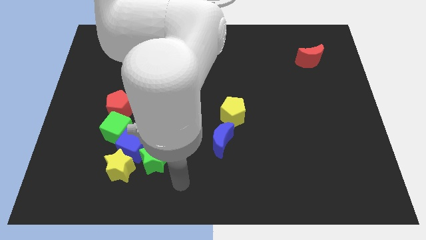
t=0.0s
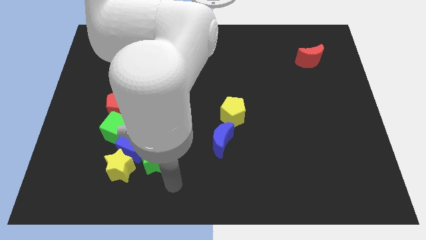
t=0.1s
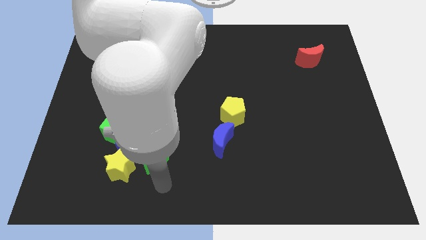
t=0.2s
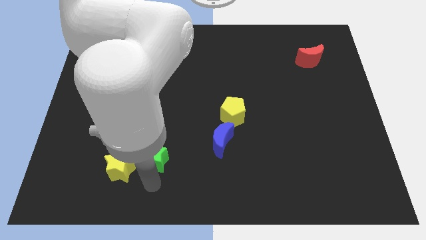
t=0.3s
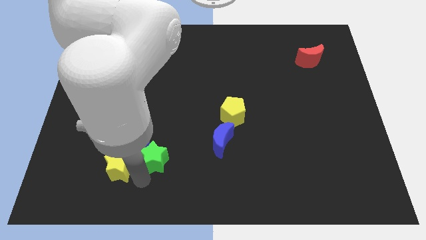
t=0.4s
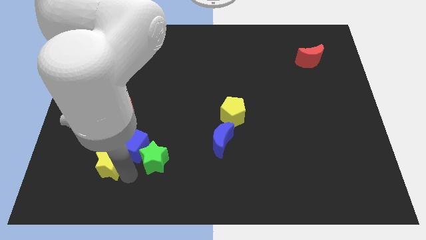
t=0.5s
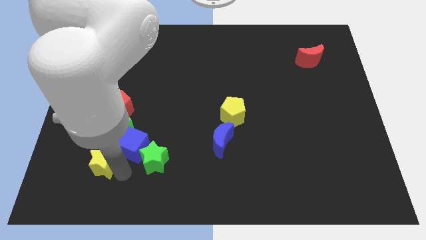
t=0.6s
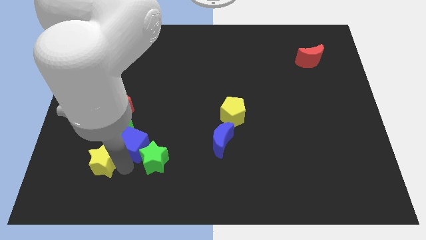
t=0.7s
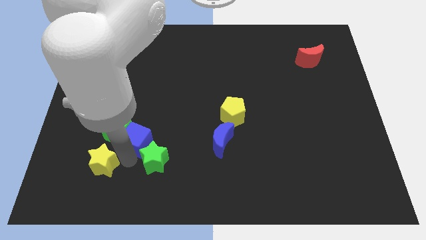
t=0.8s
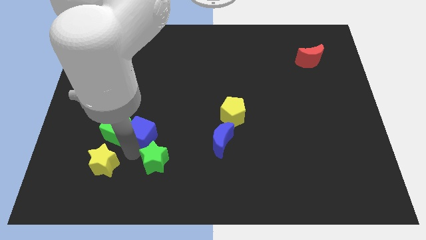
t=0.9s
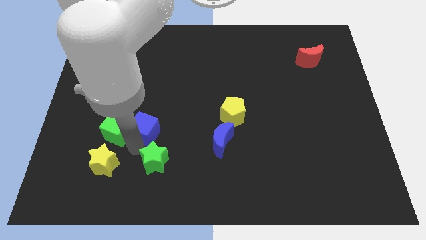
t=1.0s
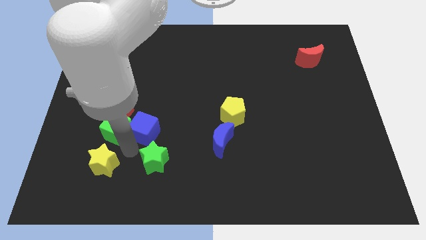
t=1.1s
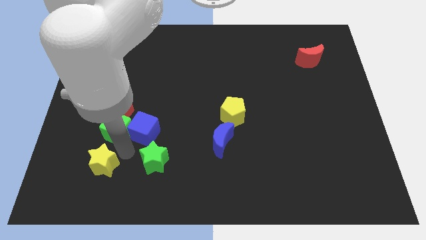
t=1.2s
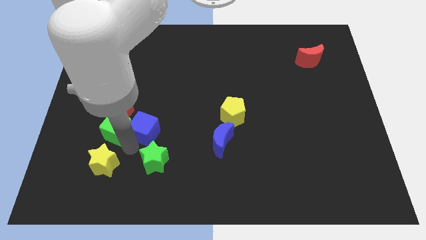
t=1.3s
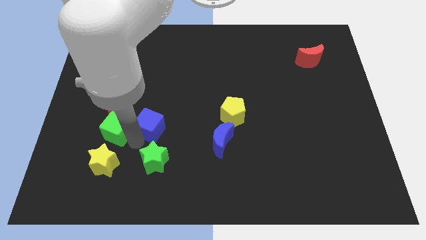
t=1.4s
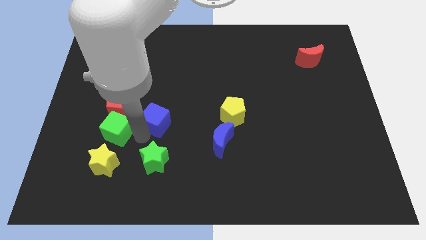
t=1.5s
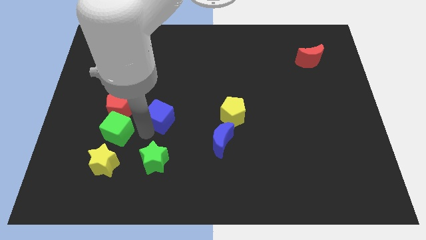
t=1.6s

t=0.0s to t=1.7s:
pull the blue cube apart from the clump

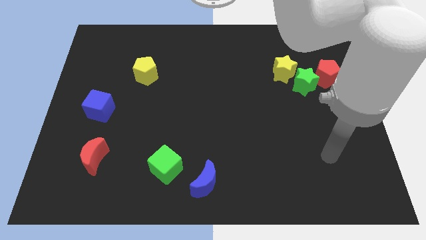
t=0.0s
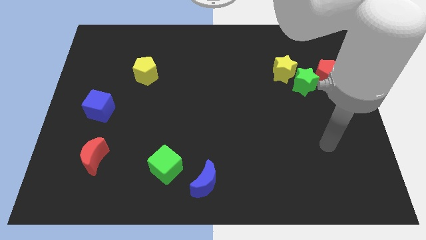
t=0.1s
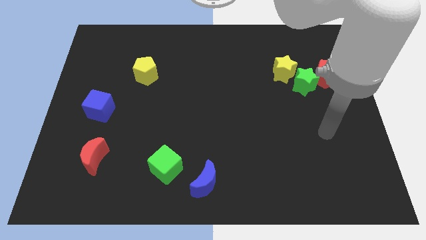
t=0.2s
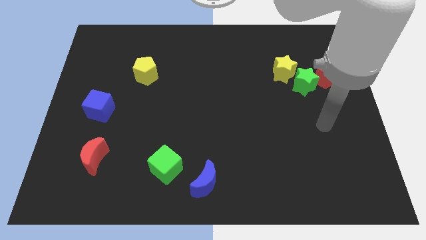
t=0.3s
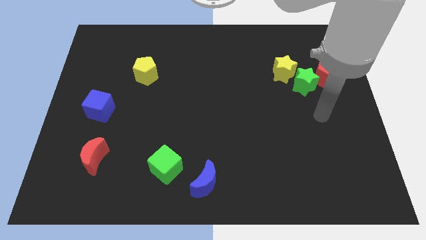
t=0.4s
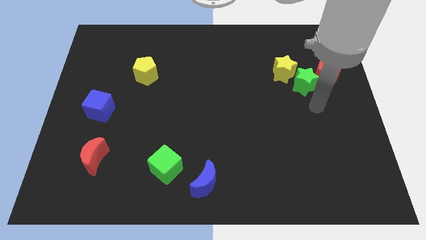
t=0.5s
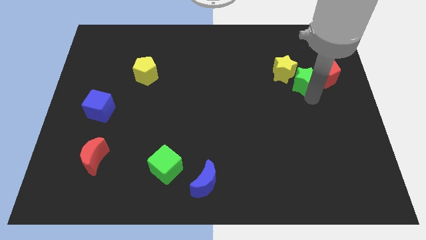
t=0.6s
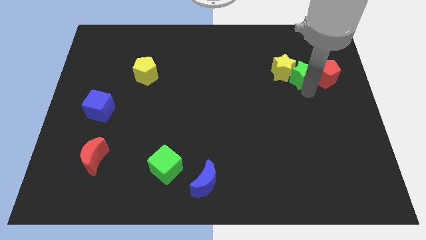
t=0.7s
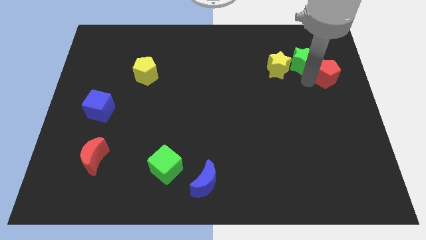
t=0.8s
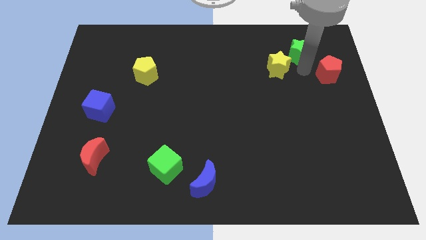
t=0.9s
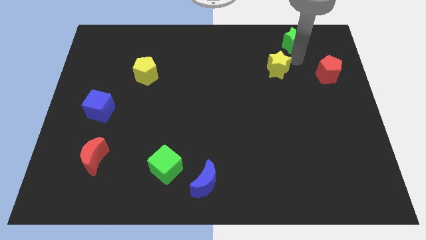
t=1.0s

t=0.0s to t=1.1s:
move the yellow star away from the green star

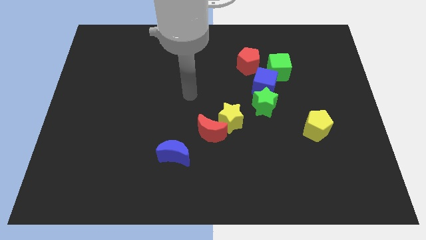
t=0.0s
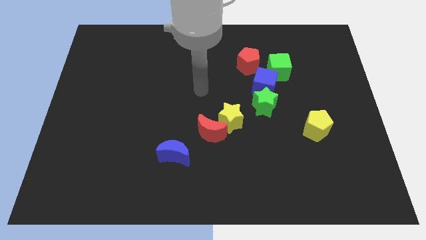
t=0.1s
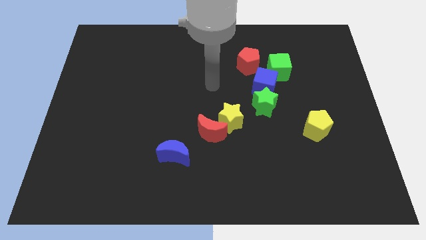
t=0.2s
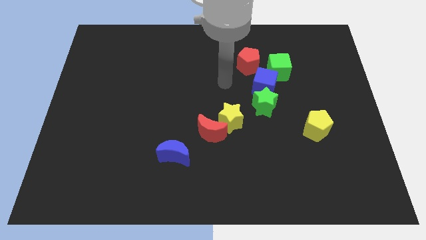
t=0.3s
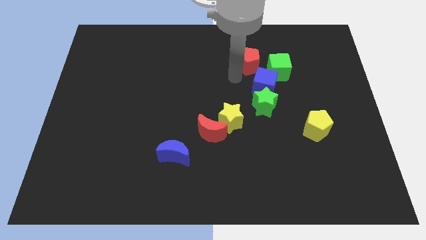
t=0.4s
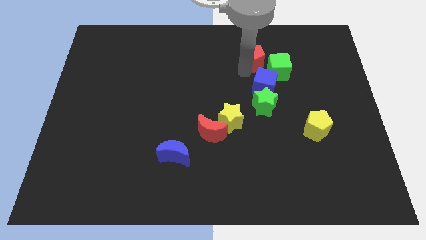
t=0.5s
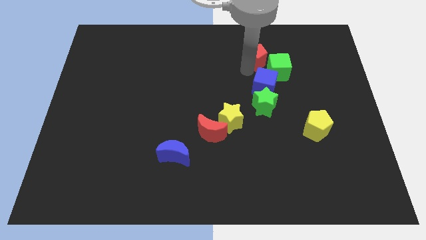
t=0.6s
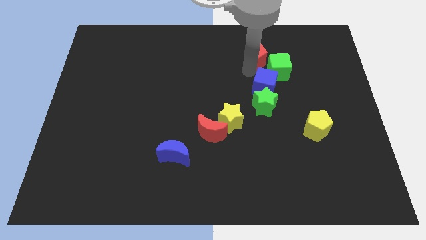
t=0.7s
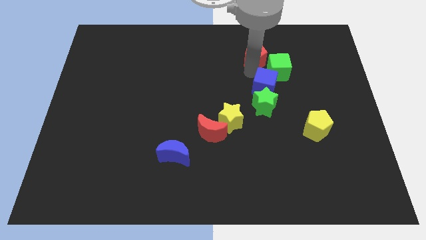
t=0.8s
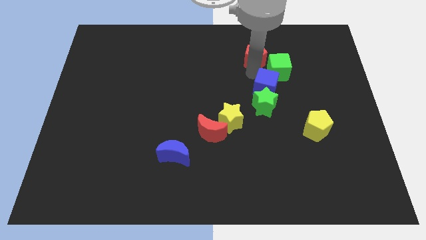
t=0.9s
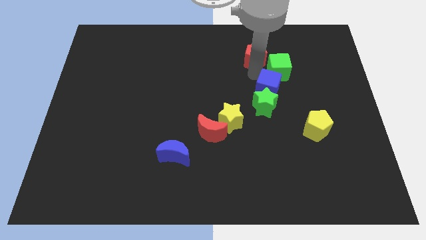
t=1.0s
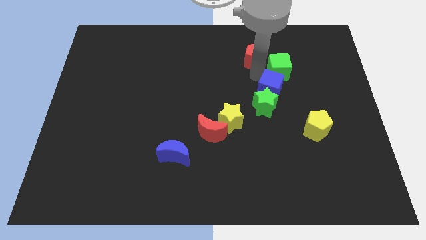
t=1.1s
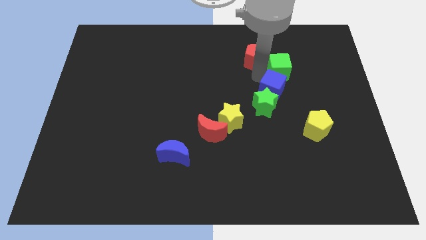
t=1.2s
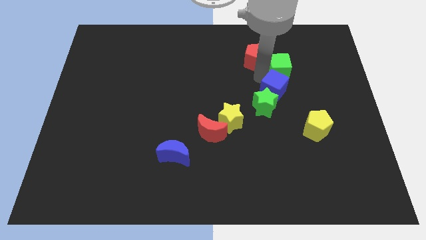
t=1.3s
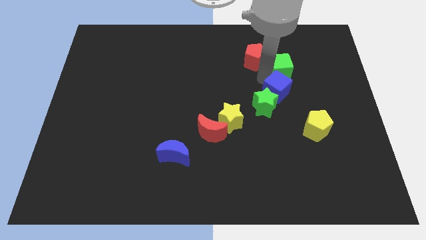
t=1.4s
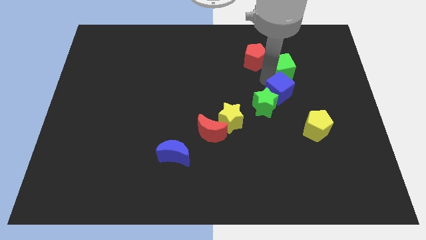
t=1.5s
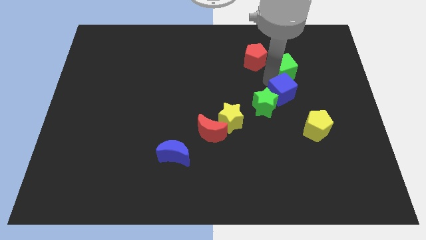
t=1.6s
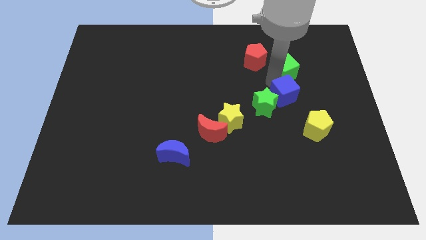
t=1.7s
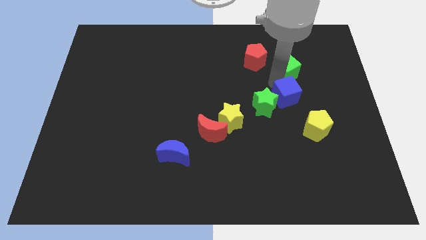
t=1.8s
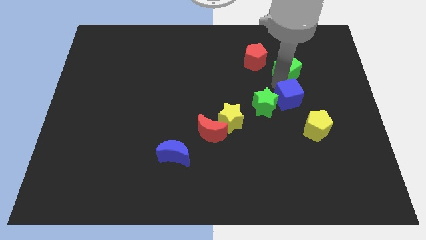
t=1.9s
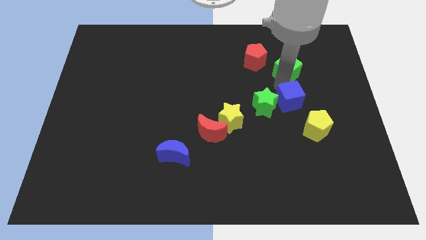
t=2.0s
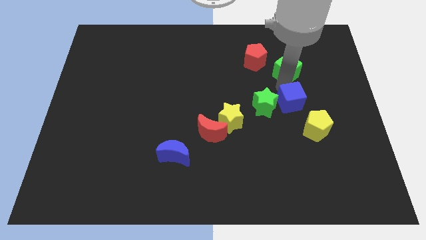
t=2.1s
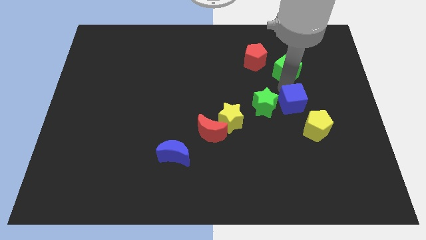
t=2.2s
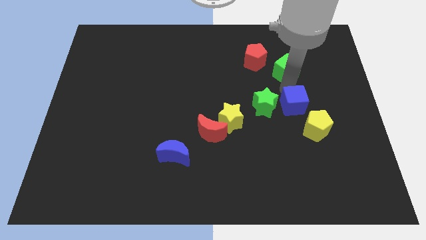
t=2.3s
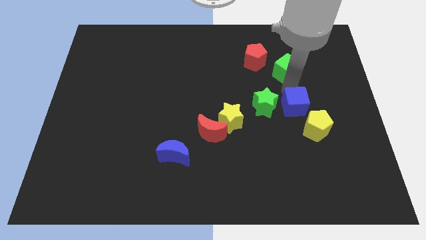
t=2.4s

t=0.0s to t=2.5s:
move the blue cube away from the green star, green cube, and red pentagon

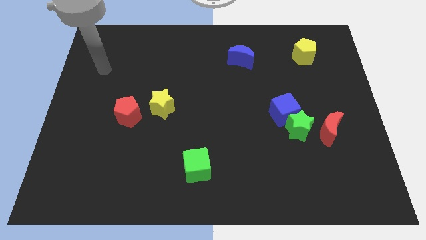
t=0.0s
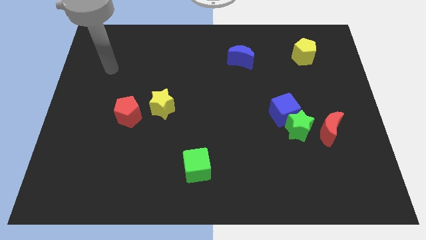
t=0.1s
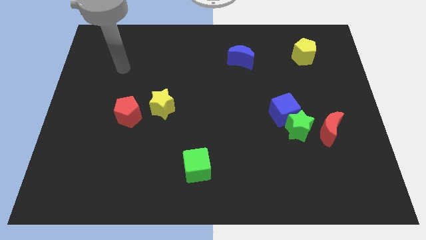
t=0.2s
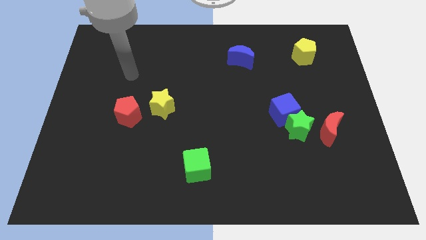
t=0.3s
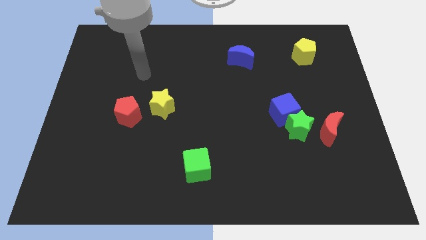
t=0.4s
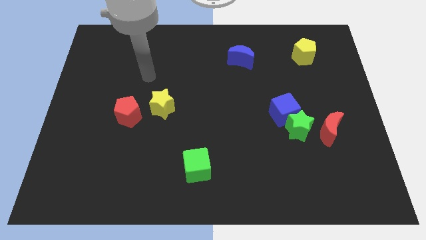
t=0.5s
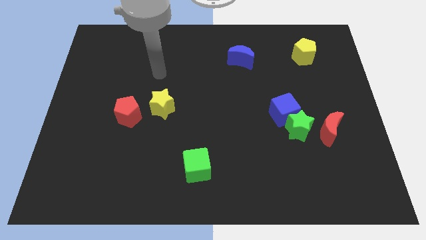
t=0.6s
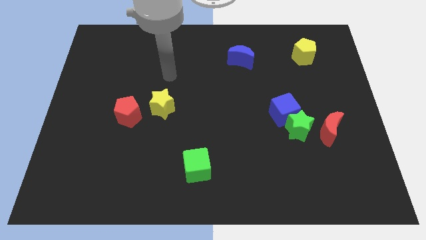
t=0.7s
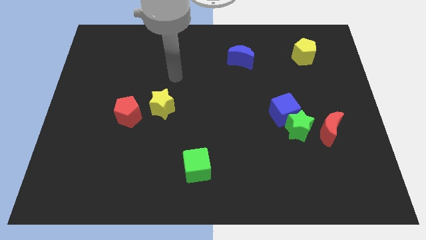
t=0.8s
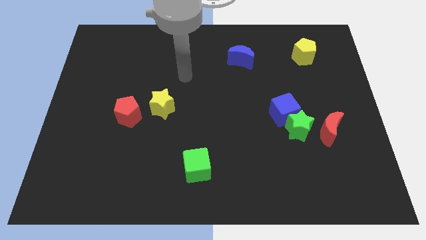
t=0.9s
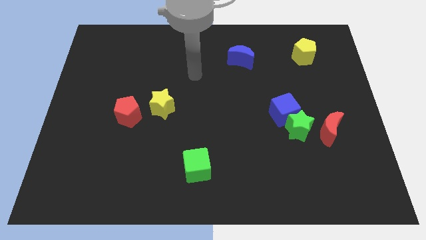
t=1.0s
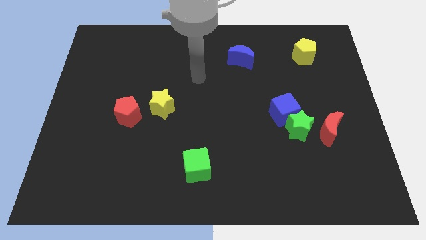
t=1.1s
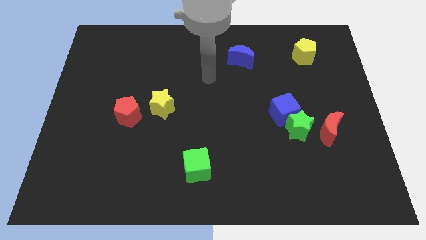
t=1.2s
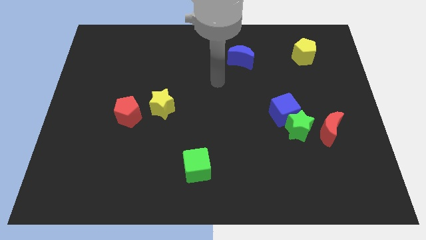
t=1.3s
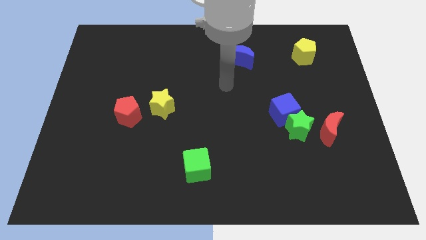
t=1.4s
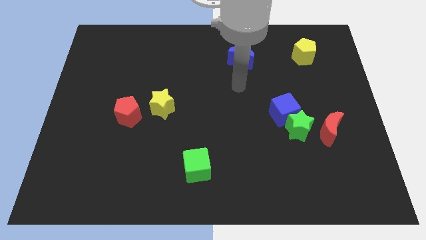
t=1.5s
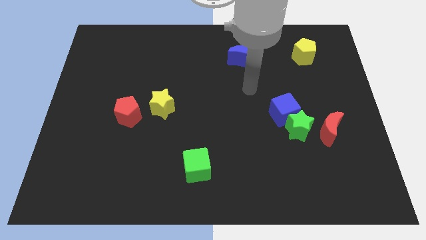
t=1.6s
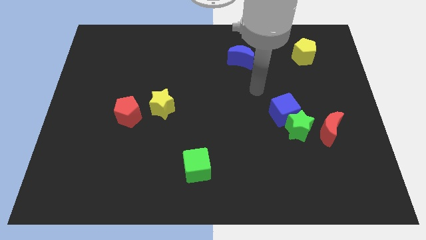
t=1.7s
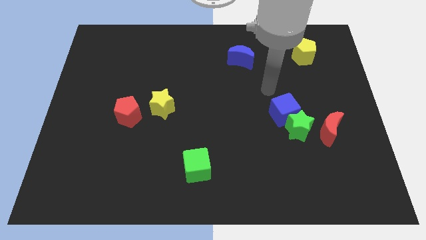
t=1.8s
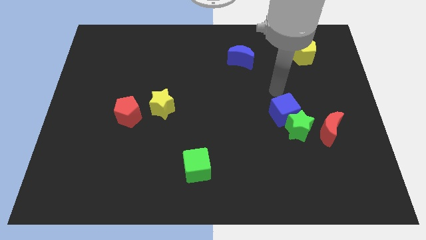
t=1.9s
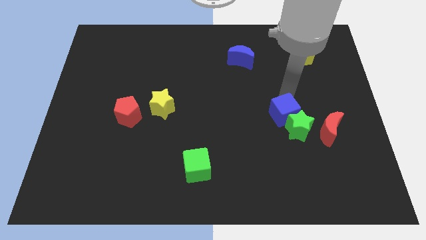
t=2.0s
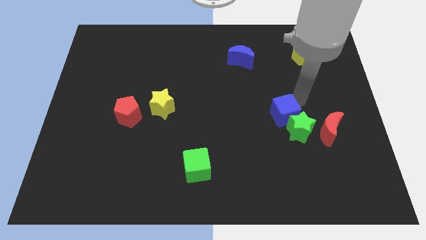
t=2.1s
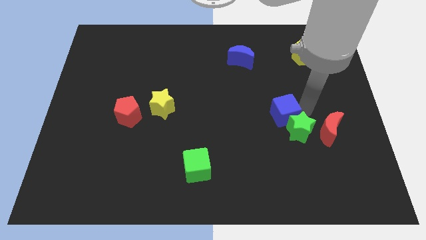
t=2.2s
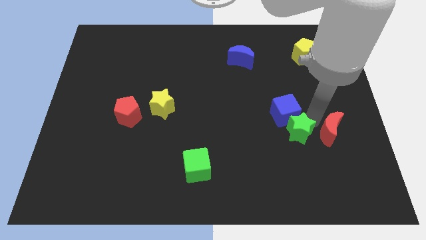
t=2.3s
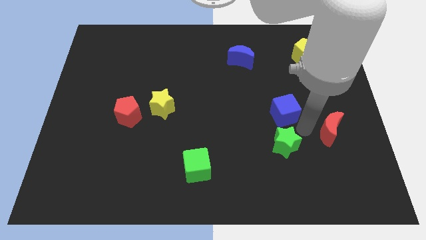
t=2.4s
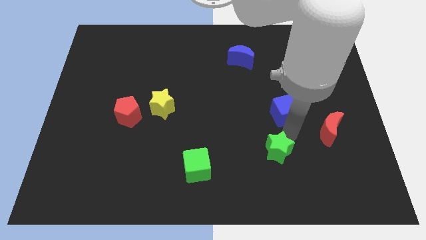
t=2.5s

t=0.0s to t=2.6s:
pull the blue cube apart from the green star

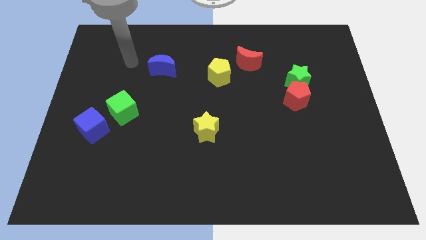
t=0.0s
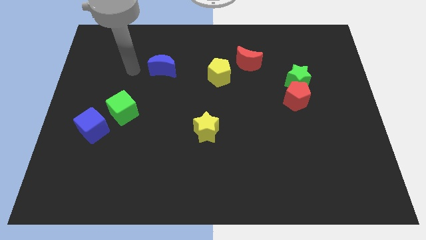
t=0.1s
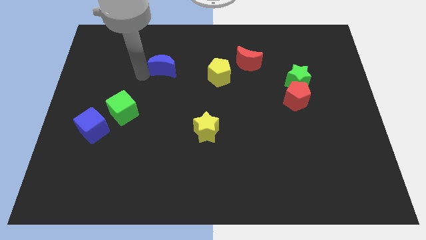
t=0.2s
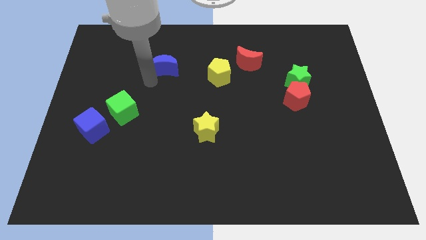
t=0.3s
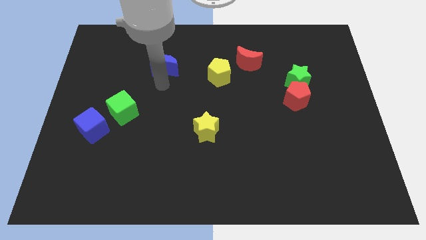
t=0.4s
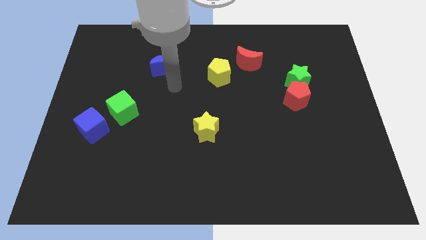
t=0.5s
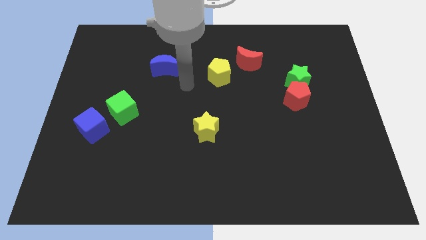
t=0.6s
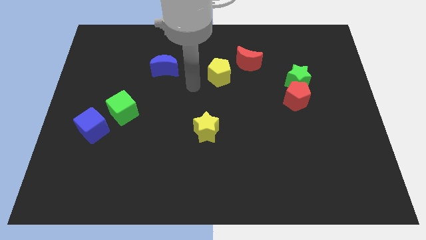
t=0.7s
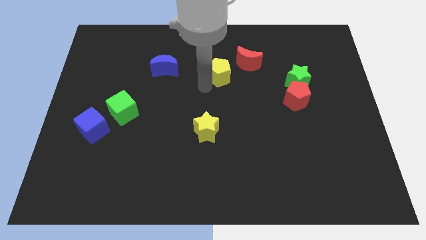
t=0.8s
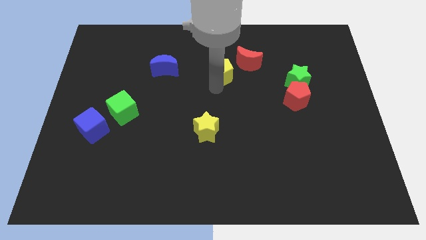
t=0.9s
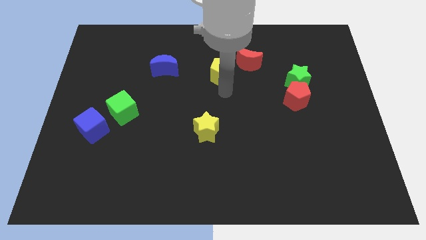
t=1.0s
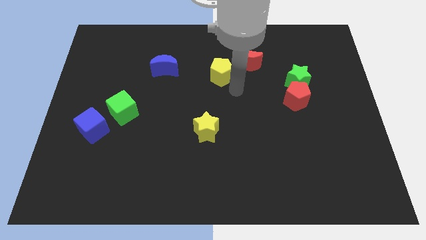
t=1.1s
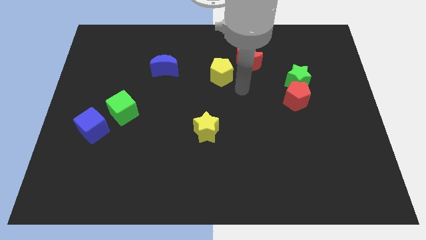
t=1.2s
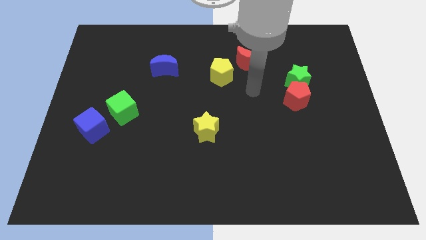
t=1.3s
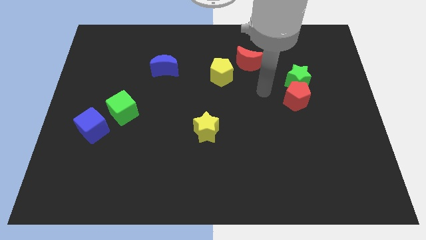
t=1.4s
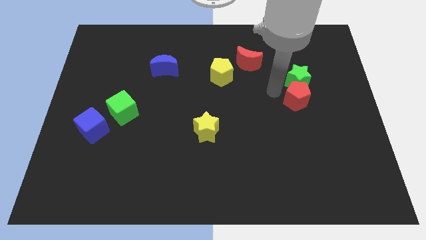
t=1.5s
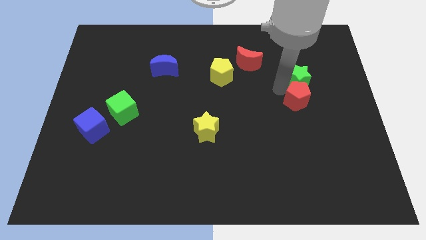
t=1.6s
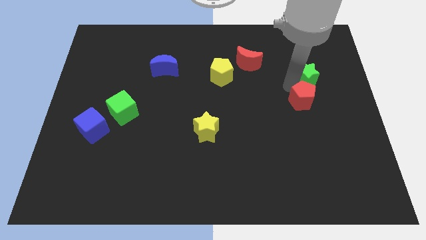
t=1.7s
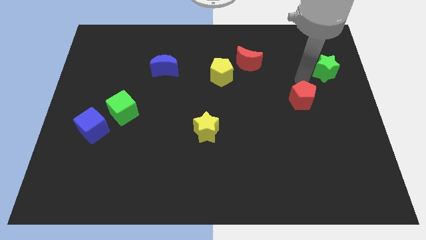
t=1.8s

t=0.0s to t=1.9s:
move the red pentagon away from the green star
